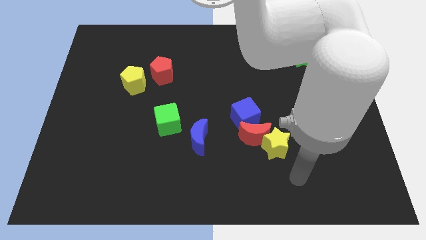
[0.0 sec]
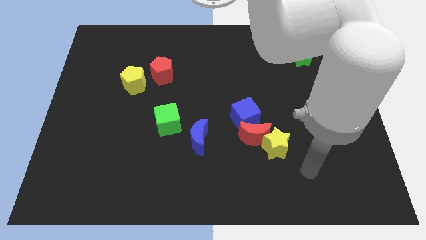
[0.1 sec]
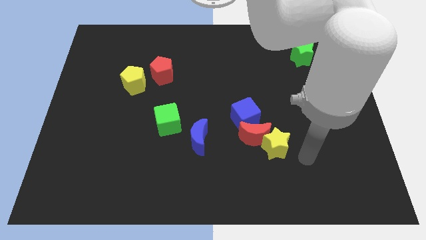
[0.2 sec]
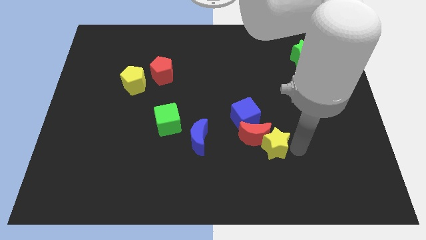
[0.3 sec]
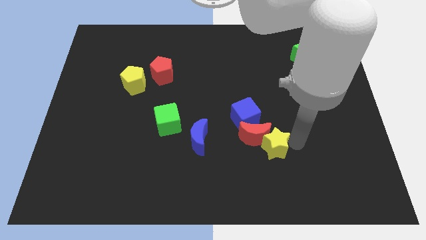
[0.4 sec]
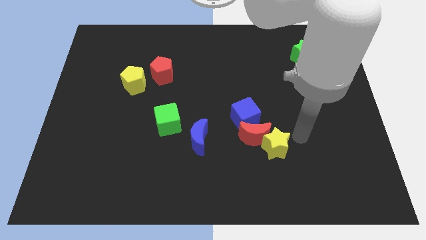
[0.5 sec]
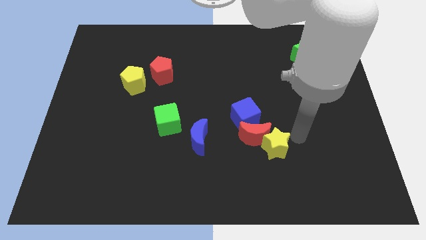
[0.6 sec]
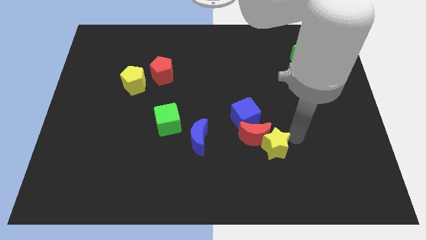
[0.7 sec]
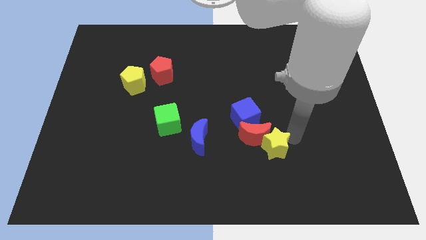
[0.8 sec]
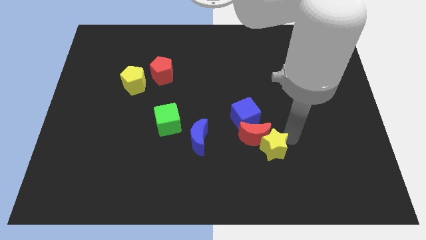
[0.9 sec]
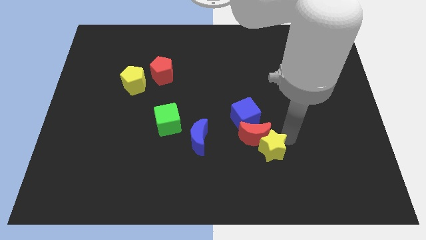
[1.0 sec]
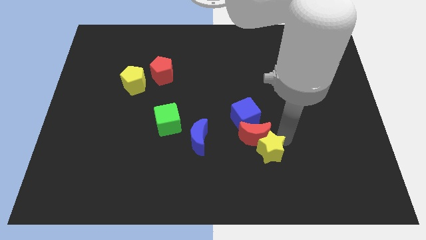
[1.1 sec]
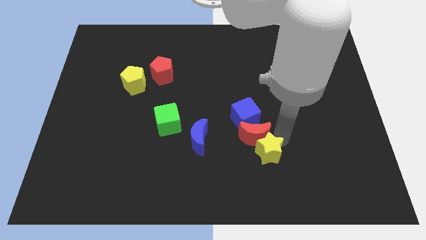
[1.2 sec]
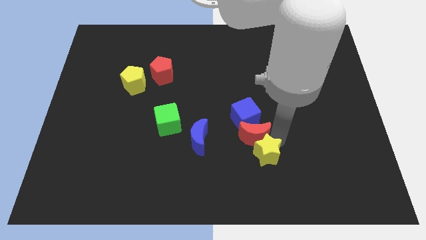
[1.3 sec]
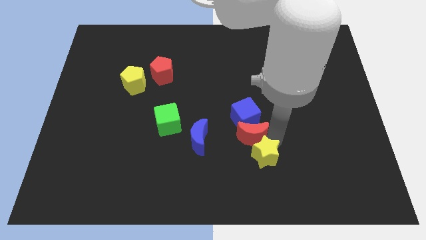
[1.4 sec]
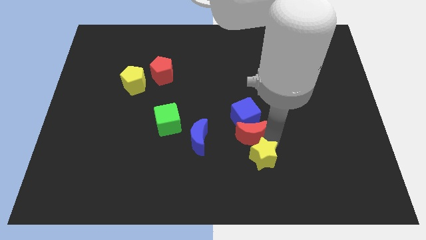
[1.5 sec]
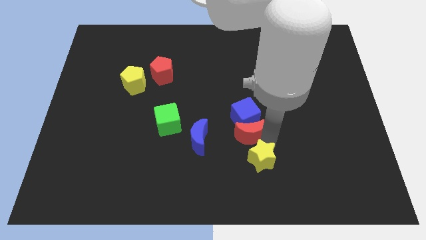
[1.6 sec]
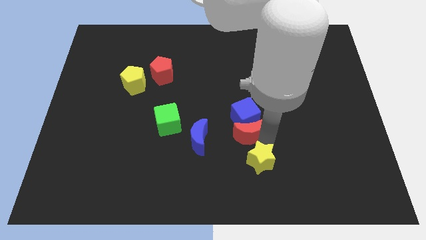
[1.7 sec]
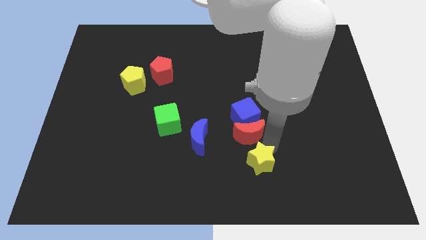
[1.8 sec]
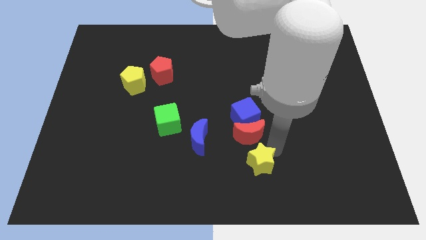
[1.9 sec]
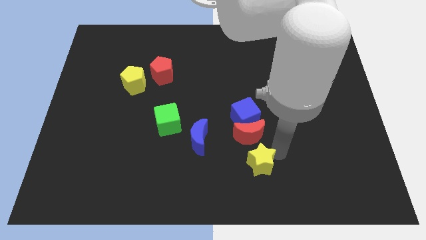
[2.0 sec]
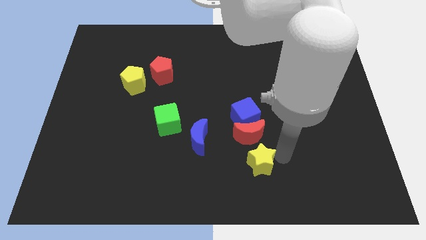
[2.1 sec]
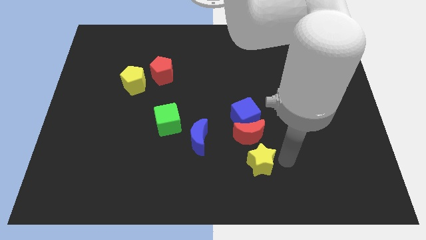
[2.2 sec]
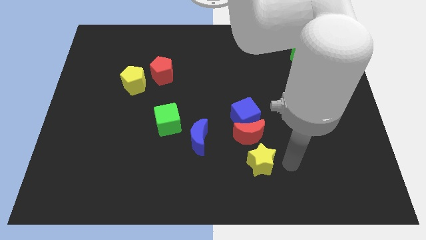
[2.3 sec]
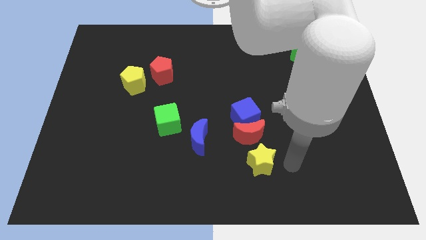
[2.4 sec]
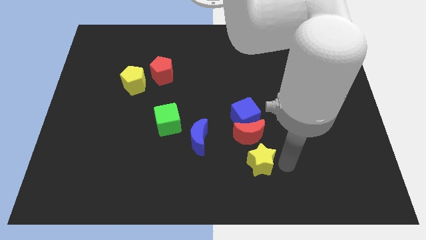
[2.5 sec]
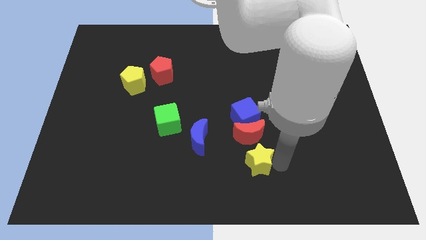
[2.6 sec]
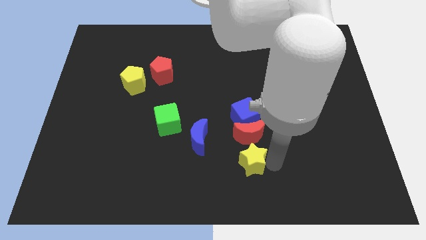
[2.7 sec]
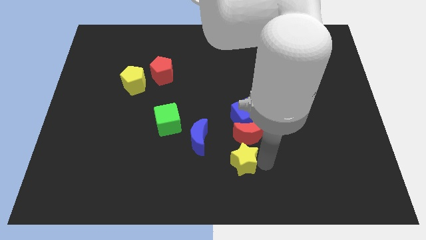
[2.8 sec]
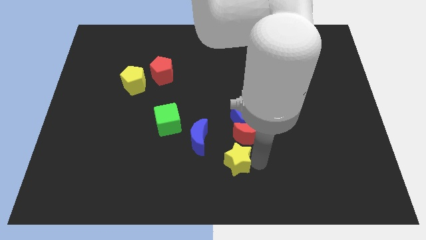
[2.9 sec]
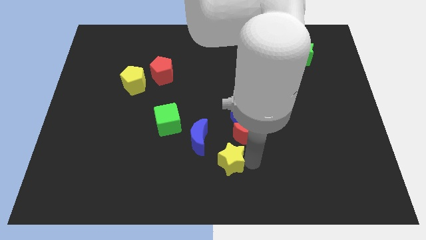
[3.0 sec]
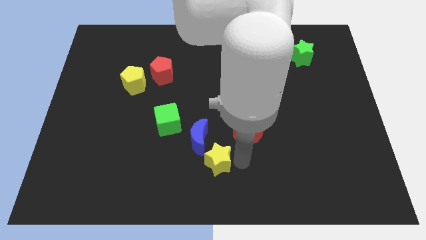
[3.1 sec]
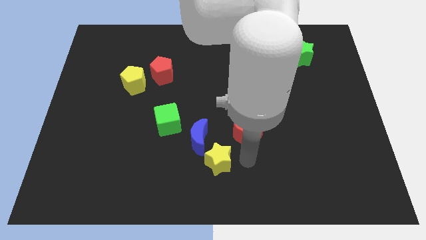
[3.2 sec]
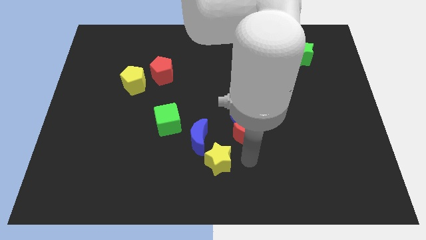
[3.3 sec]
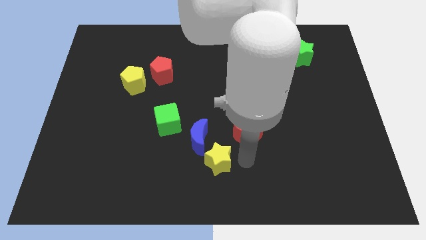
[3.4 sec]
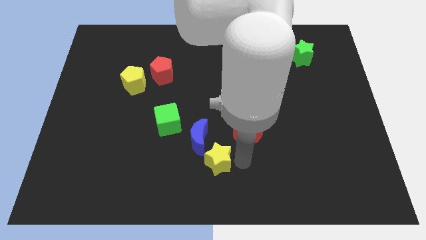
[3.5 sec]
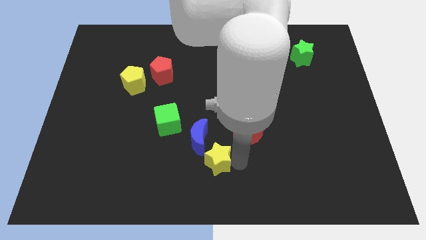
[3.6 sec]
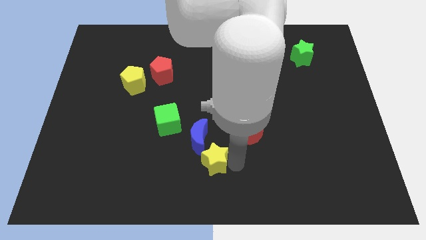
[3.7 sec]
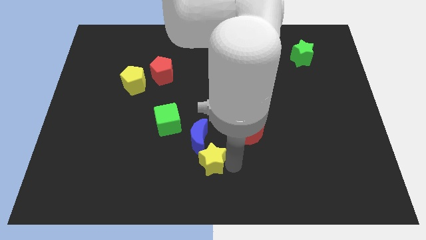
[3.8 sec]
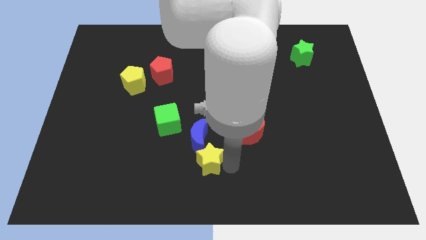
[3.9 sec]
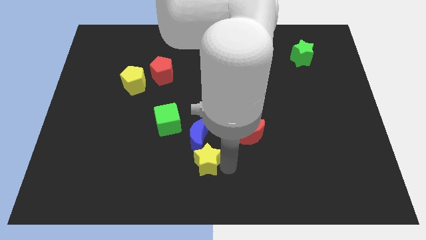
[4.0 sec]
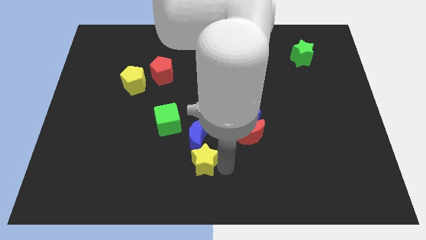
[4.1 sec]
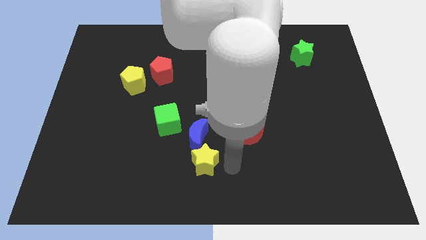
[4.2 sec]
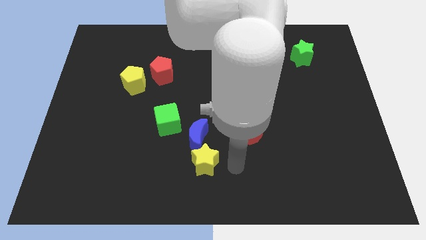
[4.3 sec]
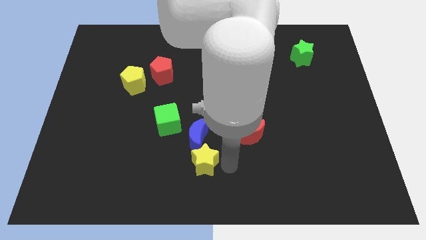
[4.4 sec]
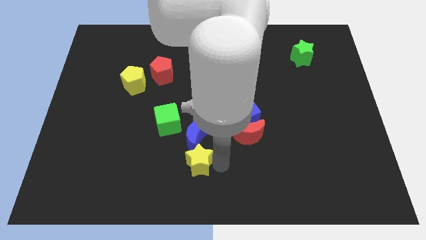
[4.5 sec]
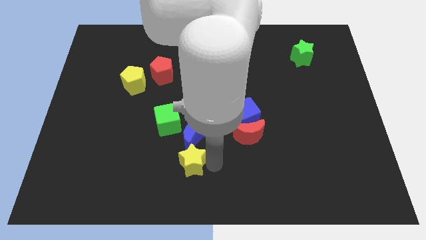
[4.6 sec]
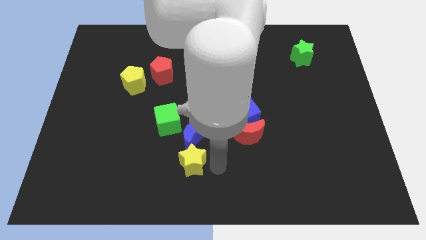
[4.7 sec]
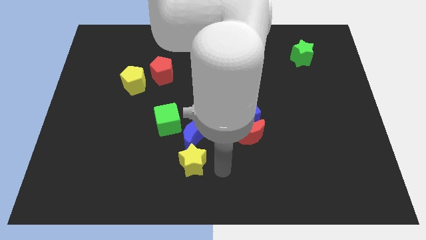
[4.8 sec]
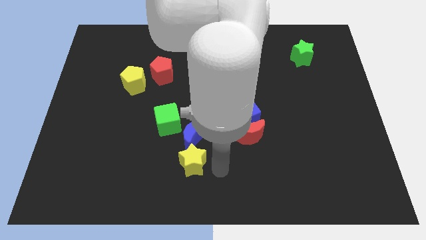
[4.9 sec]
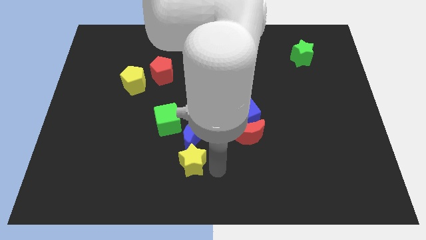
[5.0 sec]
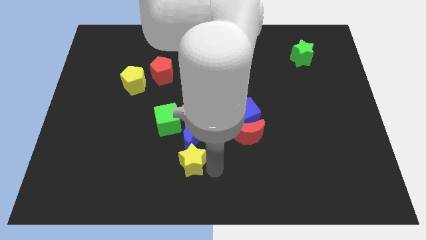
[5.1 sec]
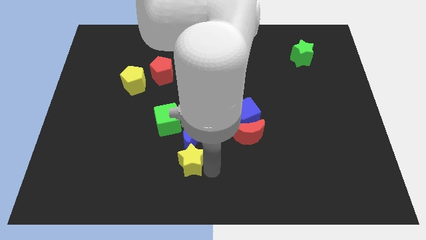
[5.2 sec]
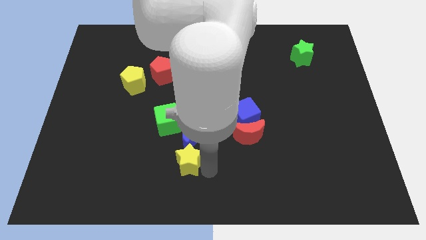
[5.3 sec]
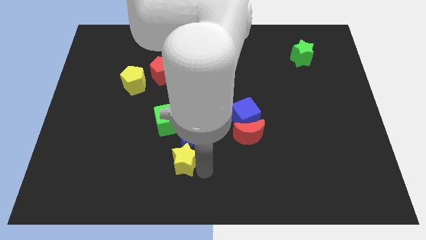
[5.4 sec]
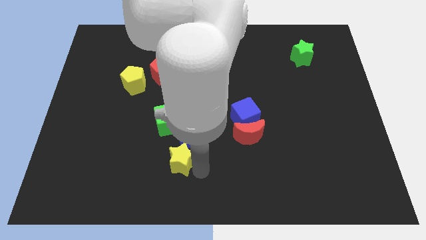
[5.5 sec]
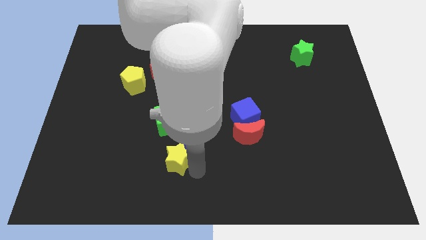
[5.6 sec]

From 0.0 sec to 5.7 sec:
move the yellow star left

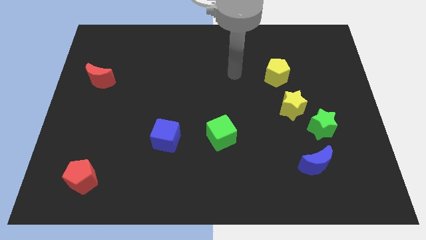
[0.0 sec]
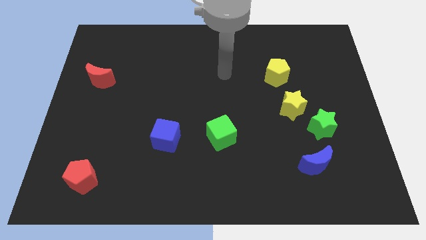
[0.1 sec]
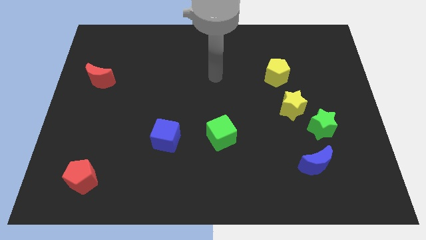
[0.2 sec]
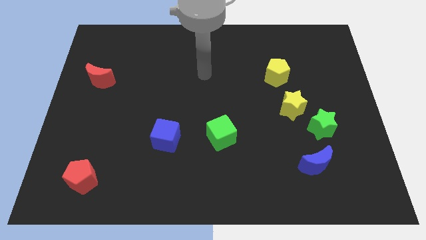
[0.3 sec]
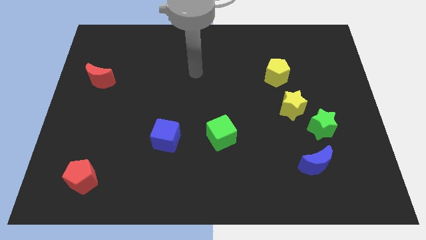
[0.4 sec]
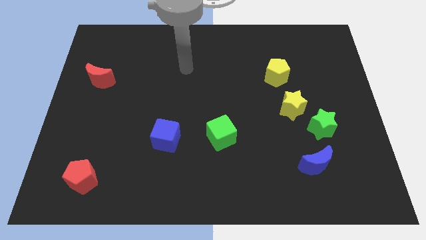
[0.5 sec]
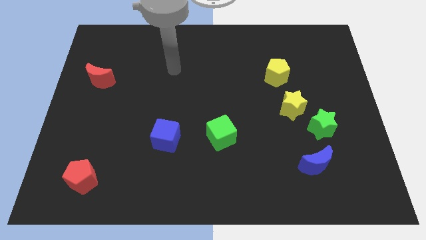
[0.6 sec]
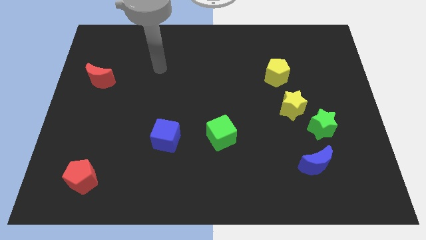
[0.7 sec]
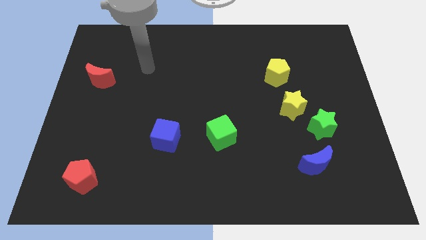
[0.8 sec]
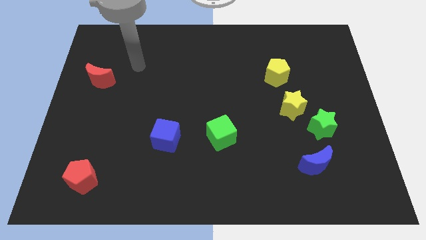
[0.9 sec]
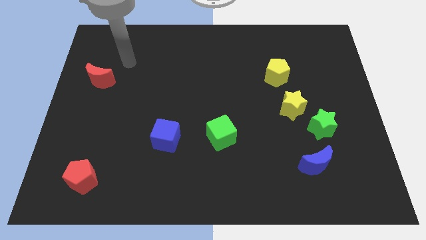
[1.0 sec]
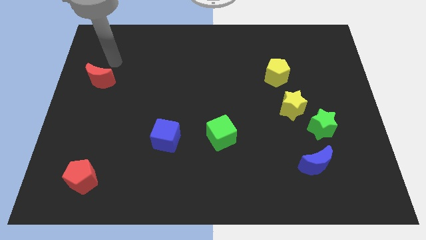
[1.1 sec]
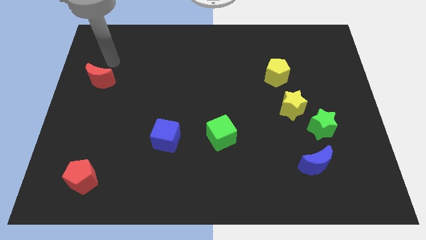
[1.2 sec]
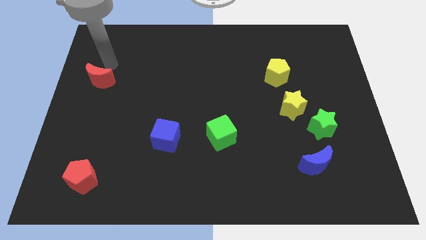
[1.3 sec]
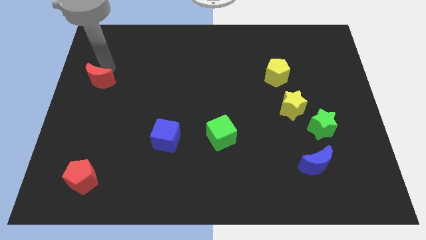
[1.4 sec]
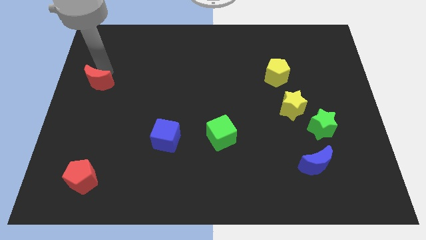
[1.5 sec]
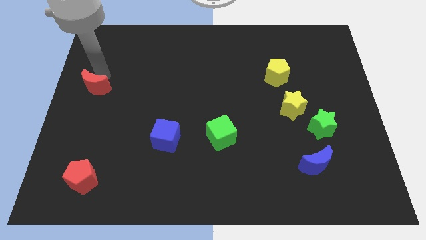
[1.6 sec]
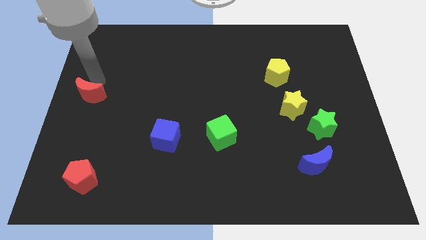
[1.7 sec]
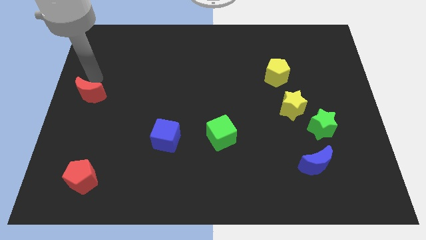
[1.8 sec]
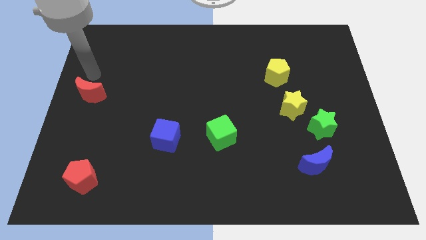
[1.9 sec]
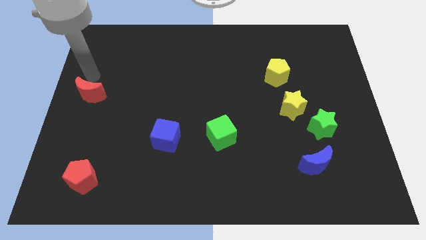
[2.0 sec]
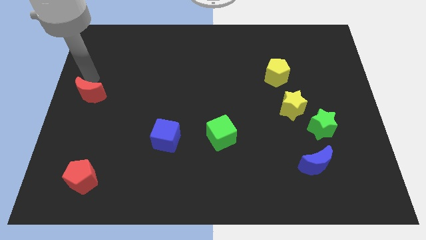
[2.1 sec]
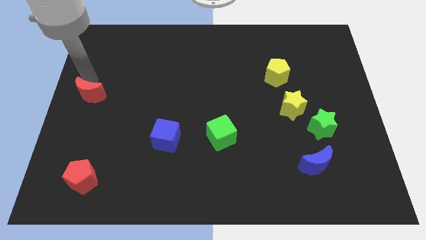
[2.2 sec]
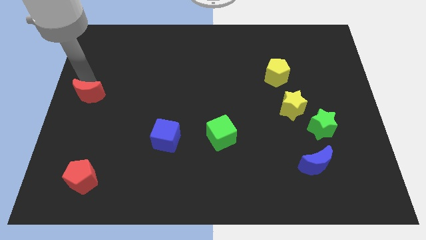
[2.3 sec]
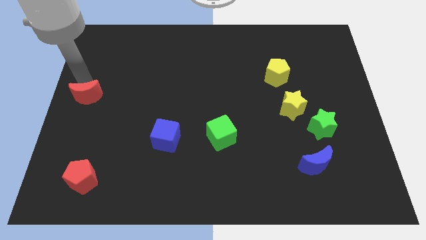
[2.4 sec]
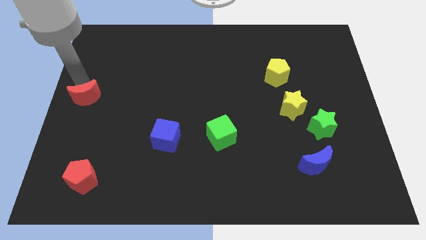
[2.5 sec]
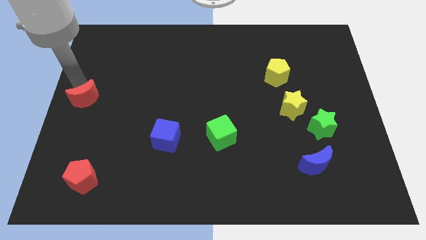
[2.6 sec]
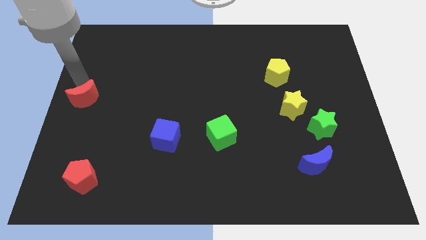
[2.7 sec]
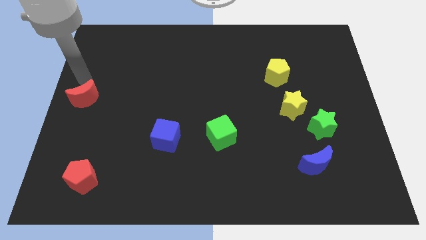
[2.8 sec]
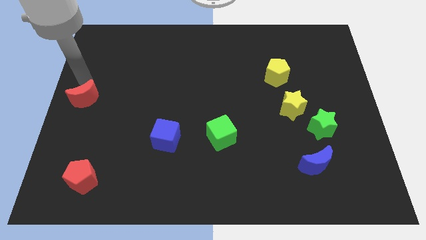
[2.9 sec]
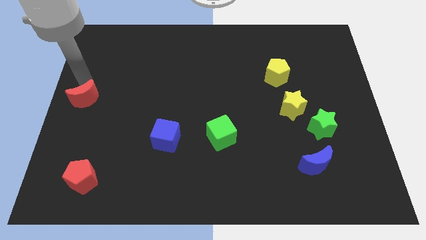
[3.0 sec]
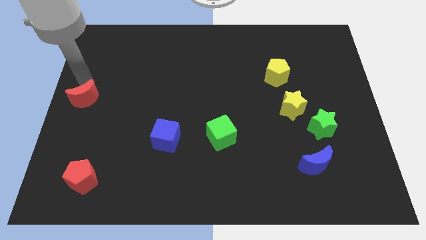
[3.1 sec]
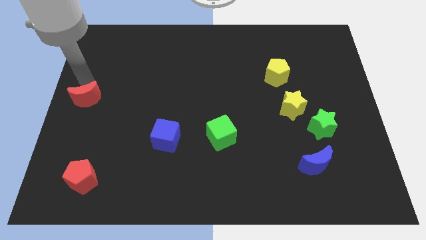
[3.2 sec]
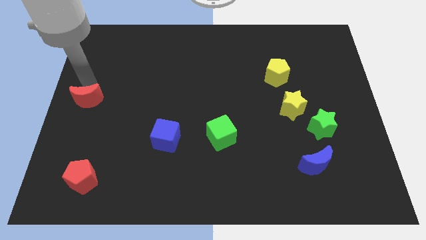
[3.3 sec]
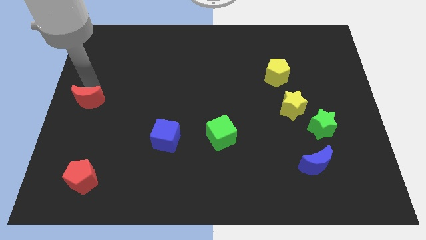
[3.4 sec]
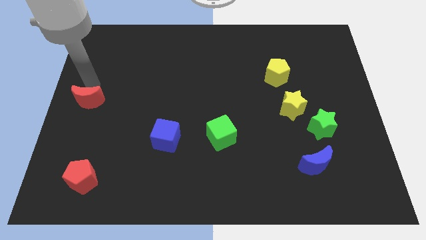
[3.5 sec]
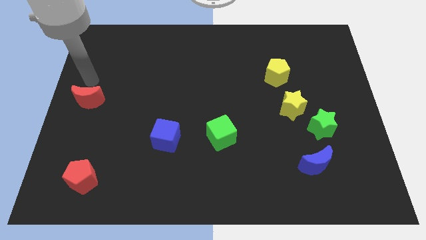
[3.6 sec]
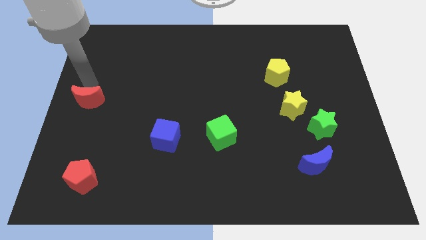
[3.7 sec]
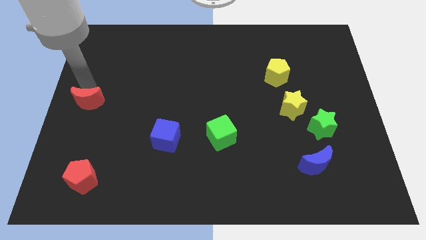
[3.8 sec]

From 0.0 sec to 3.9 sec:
push the red moon downwards slightly
